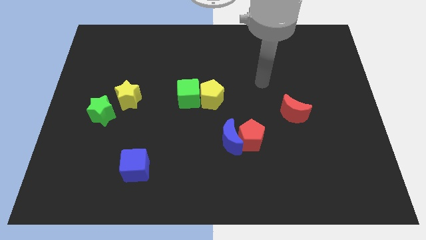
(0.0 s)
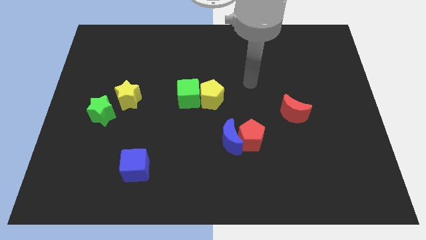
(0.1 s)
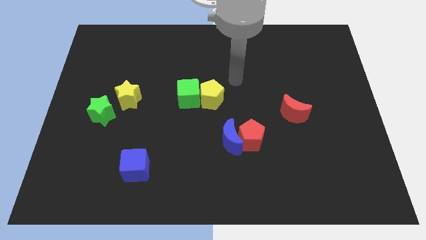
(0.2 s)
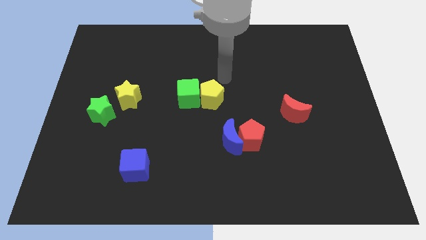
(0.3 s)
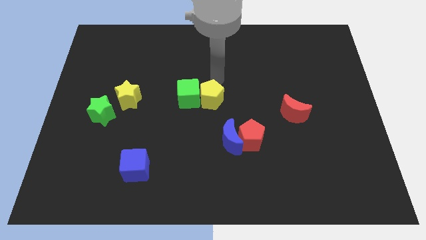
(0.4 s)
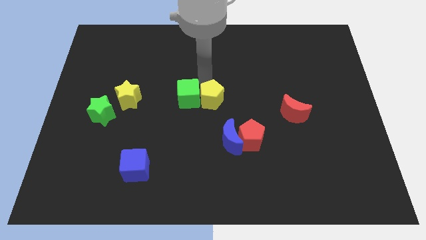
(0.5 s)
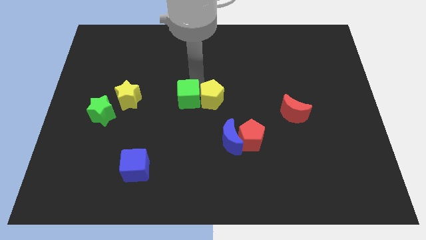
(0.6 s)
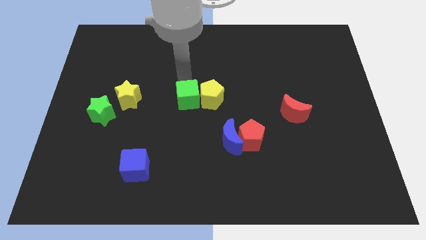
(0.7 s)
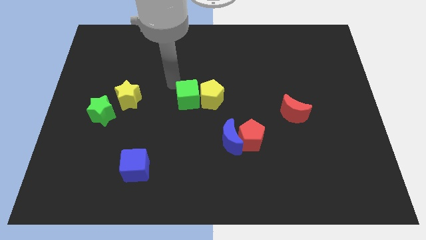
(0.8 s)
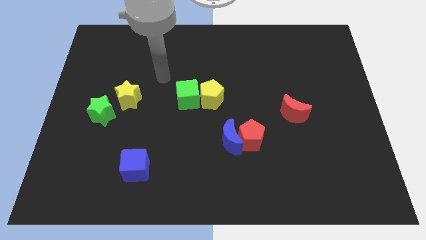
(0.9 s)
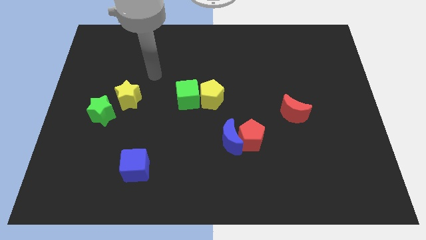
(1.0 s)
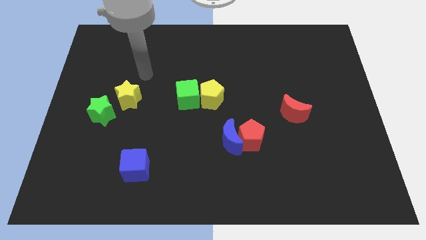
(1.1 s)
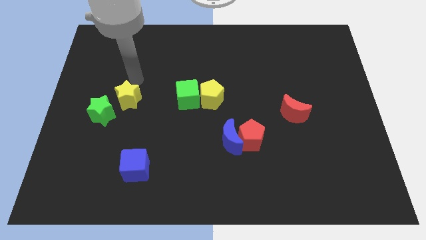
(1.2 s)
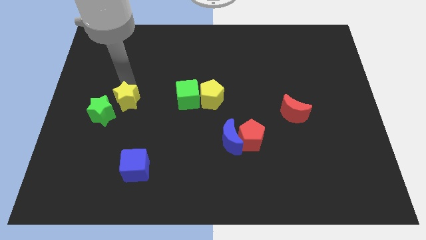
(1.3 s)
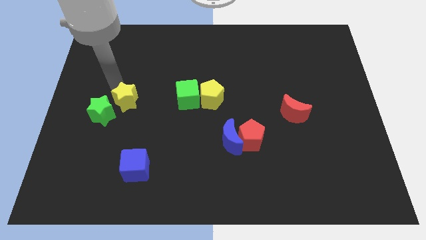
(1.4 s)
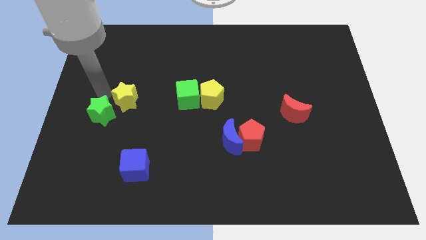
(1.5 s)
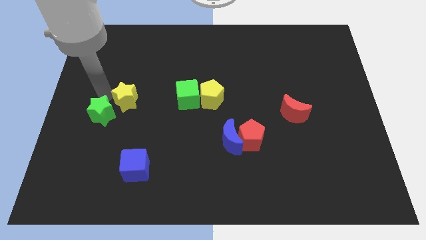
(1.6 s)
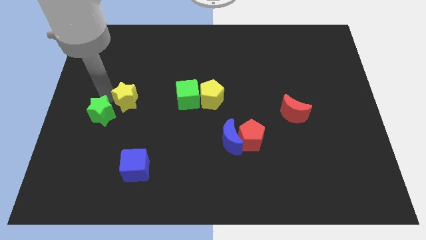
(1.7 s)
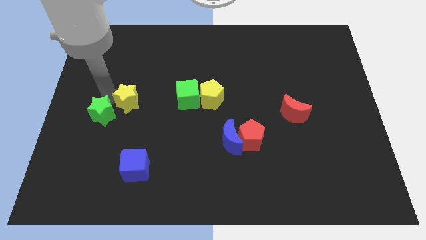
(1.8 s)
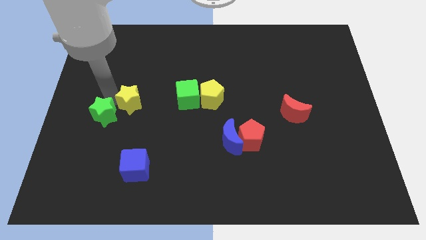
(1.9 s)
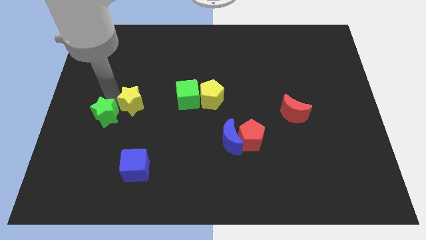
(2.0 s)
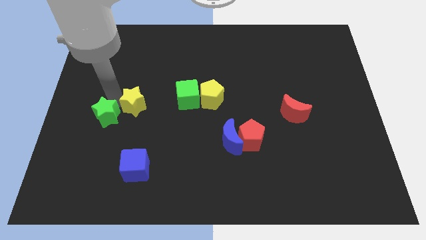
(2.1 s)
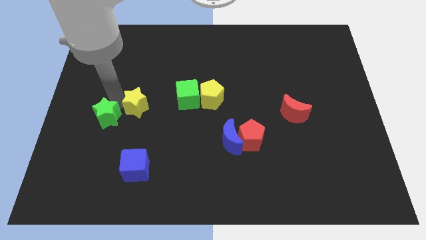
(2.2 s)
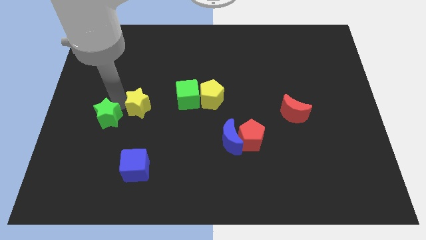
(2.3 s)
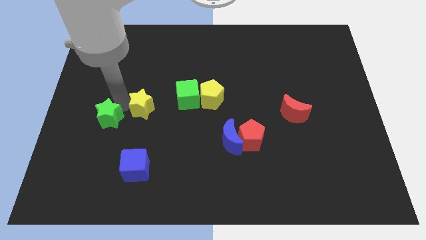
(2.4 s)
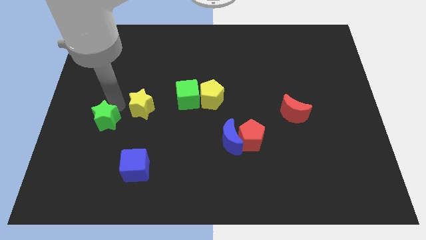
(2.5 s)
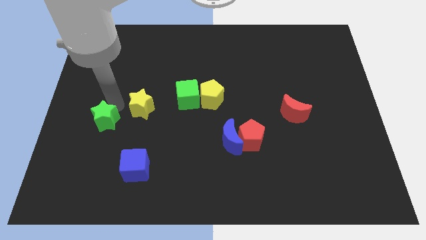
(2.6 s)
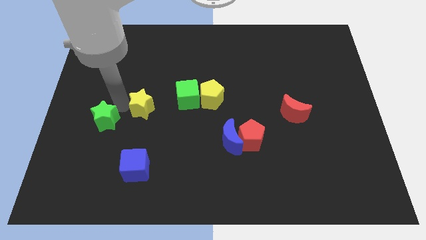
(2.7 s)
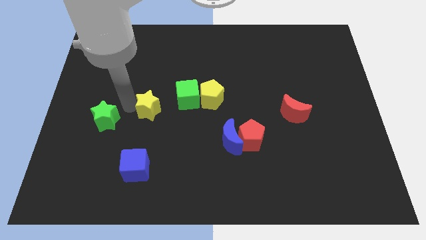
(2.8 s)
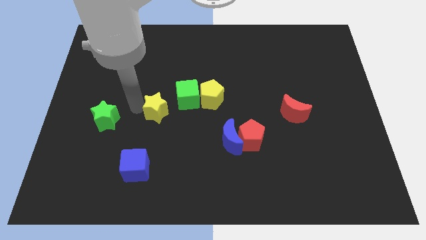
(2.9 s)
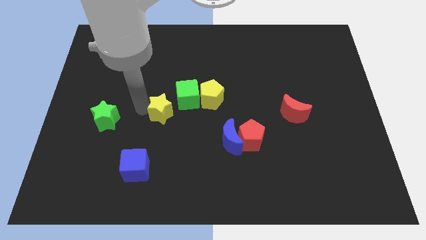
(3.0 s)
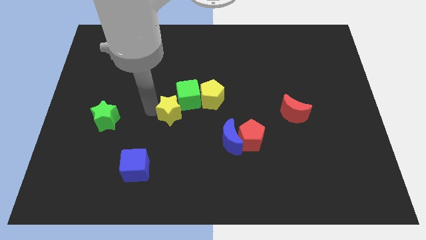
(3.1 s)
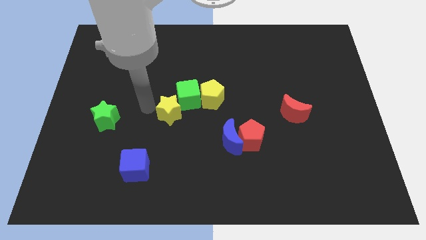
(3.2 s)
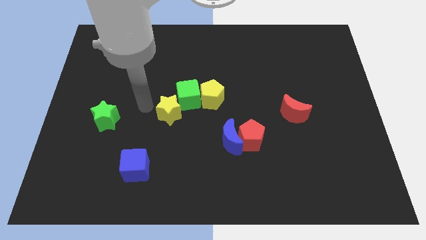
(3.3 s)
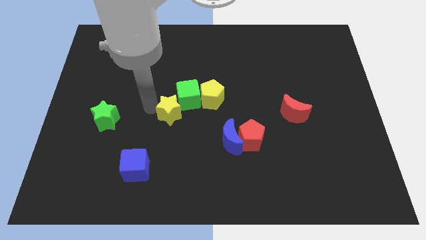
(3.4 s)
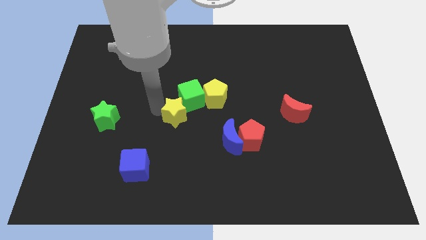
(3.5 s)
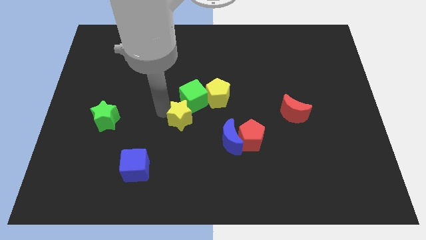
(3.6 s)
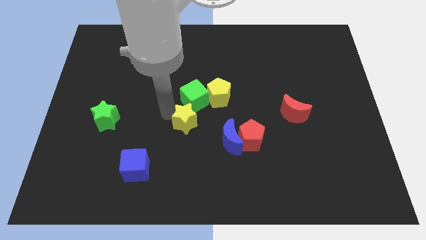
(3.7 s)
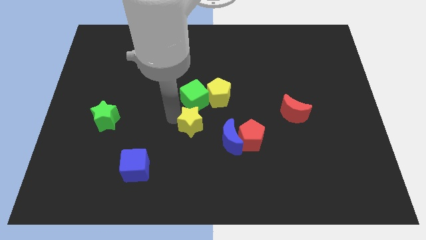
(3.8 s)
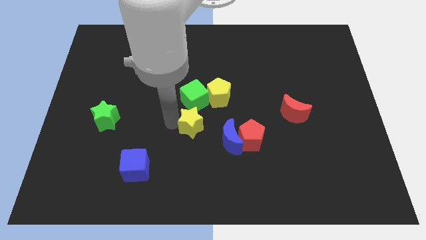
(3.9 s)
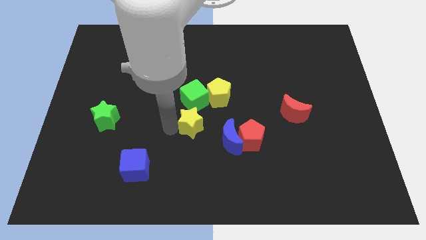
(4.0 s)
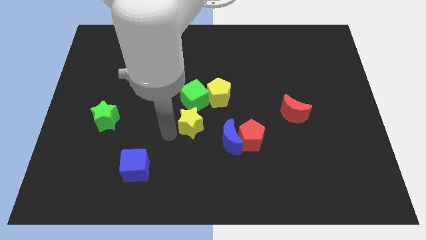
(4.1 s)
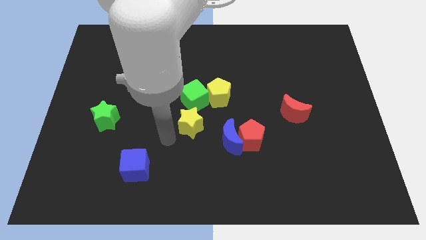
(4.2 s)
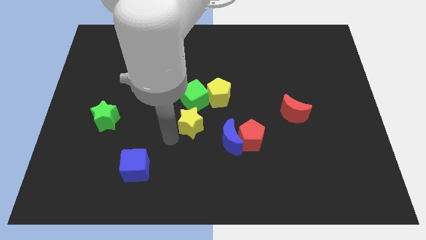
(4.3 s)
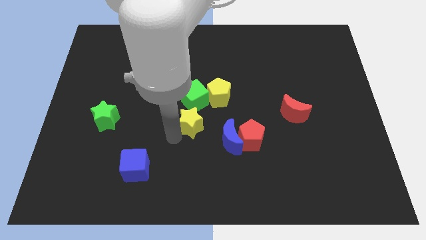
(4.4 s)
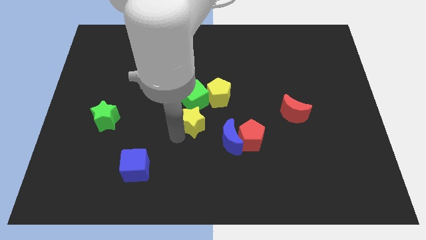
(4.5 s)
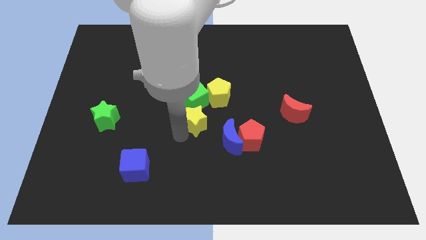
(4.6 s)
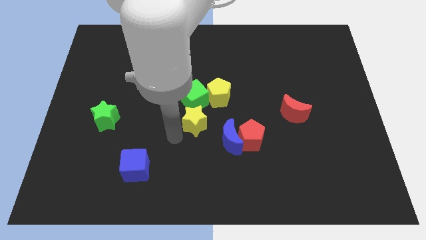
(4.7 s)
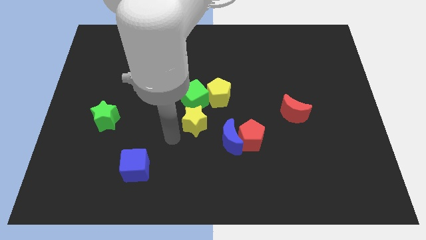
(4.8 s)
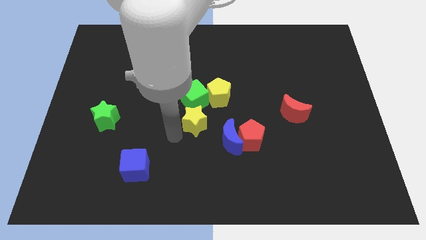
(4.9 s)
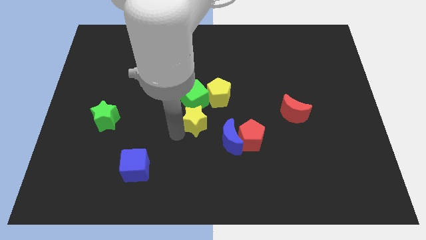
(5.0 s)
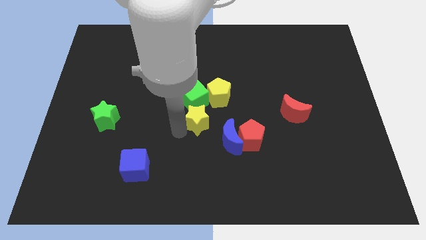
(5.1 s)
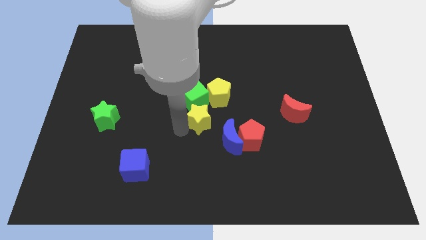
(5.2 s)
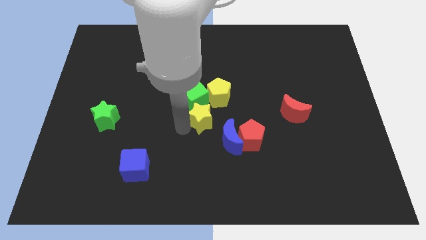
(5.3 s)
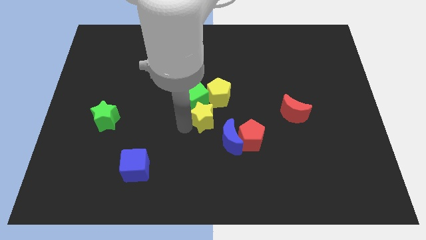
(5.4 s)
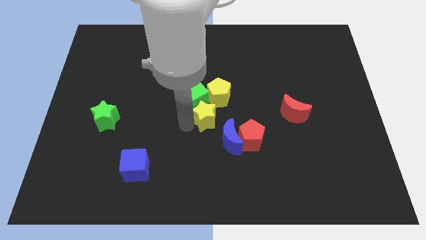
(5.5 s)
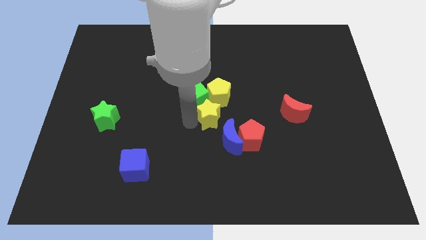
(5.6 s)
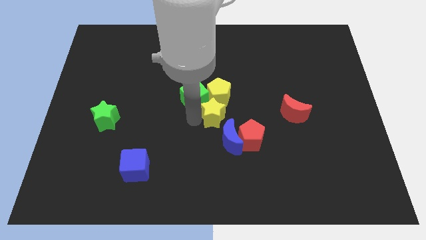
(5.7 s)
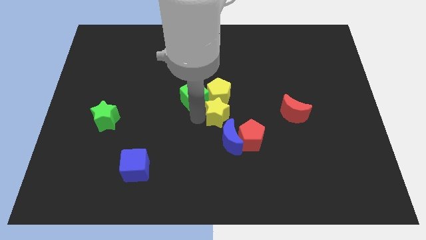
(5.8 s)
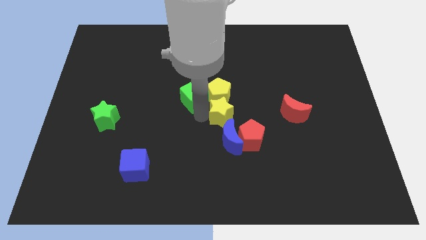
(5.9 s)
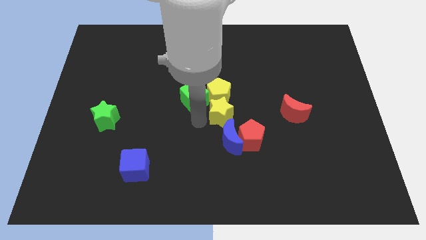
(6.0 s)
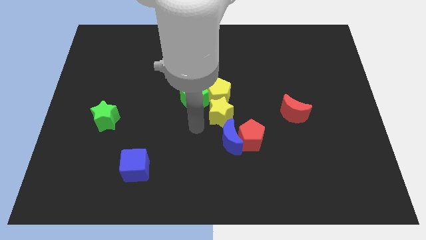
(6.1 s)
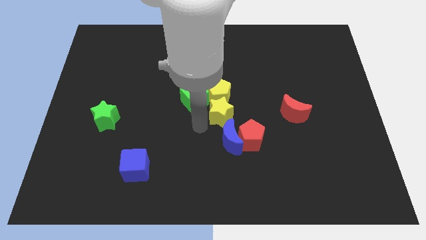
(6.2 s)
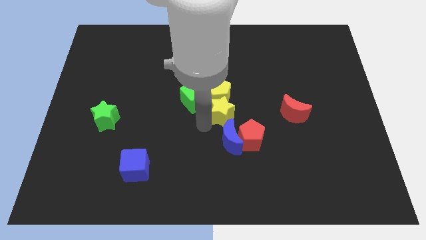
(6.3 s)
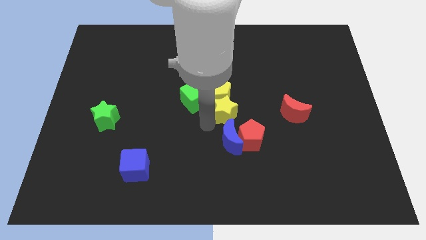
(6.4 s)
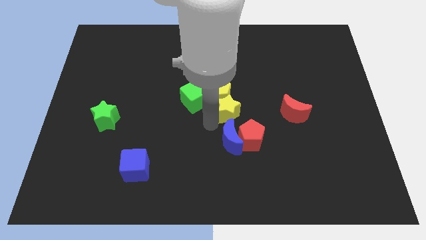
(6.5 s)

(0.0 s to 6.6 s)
push the yellow star to the top of the red pentagon
